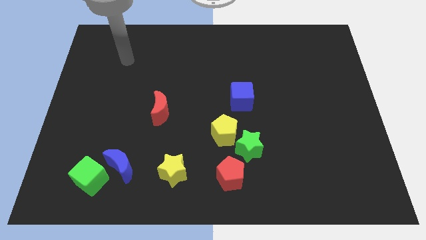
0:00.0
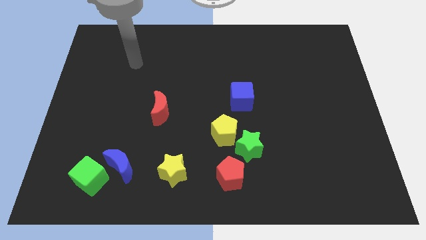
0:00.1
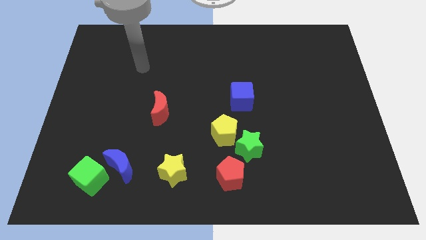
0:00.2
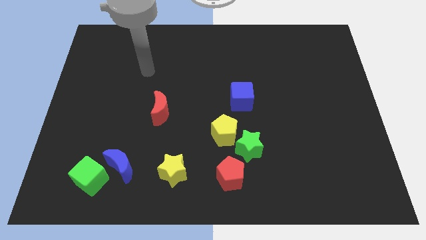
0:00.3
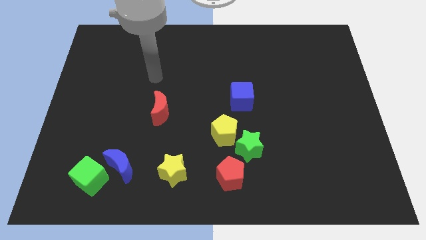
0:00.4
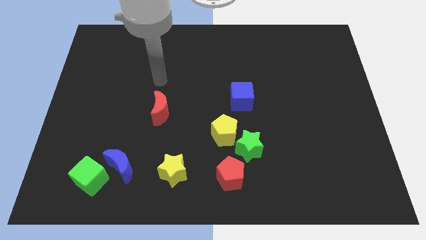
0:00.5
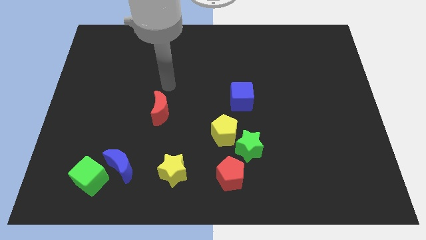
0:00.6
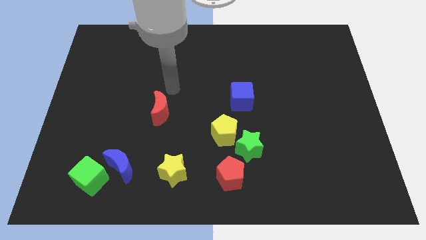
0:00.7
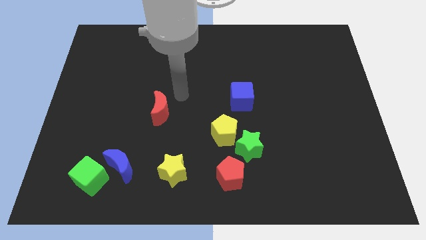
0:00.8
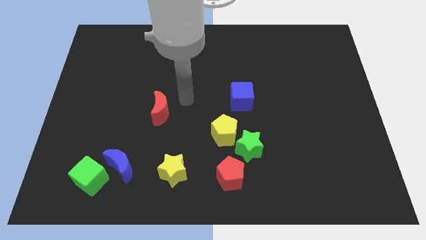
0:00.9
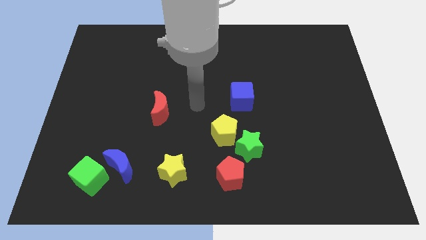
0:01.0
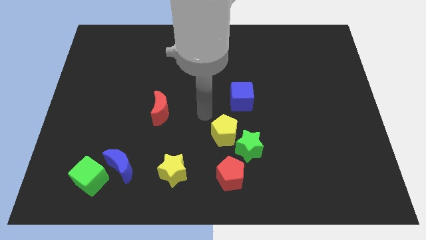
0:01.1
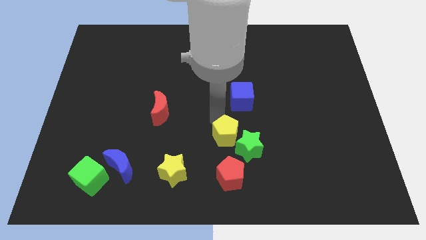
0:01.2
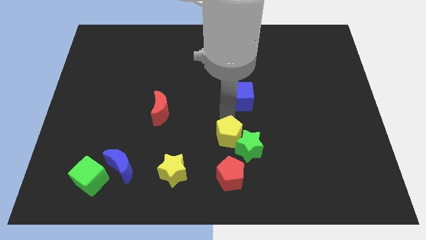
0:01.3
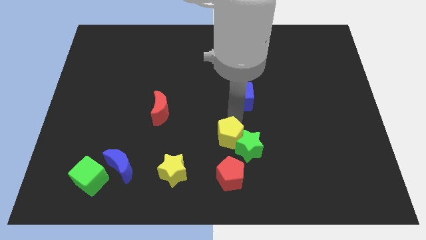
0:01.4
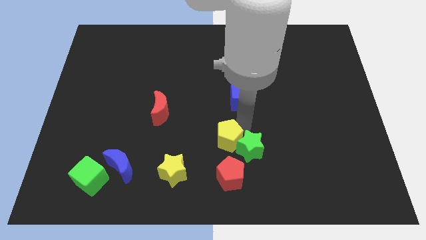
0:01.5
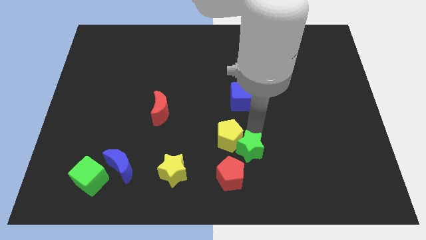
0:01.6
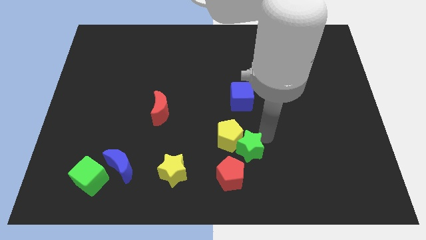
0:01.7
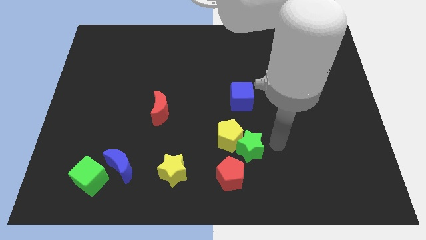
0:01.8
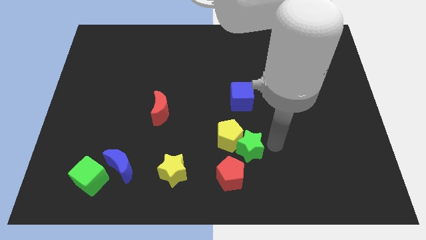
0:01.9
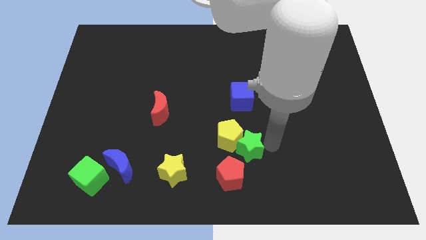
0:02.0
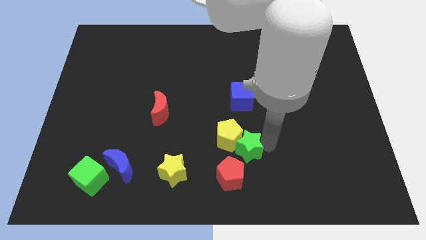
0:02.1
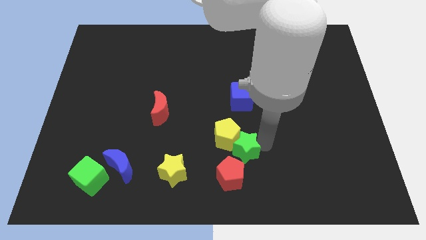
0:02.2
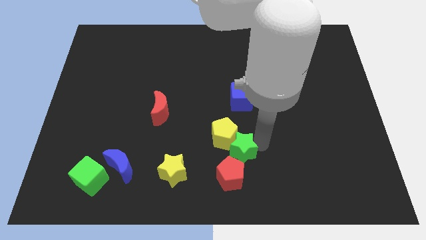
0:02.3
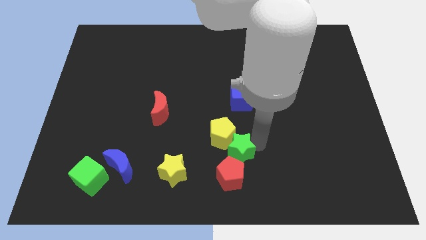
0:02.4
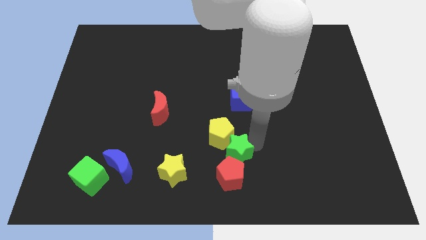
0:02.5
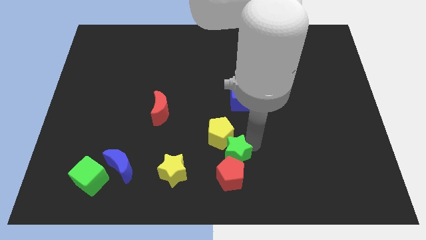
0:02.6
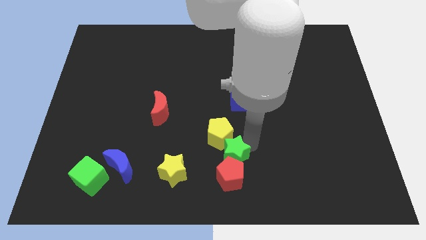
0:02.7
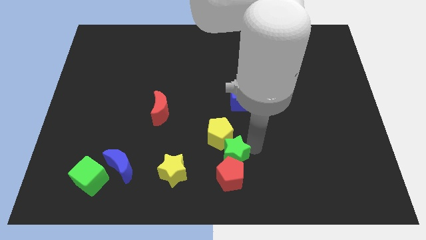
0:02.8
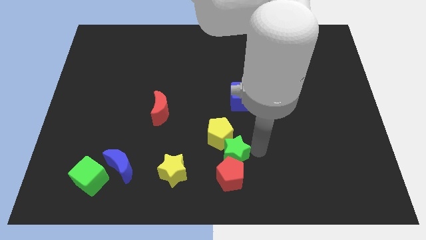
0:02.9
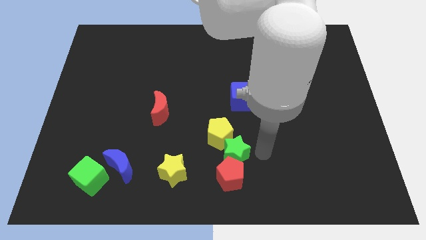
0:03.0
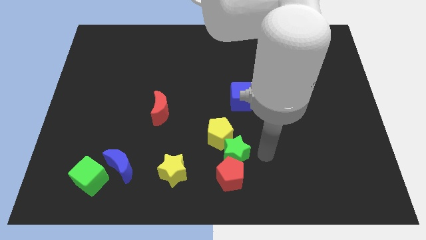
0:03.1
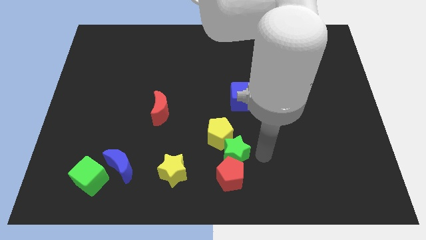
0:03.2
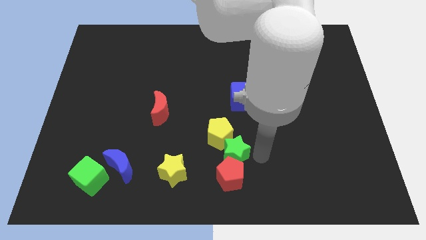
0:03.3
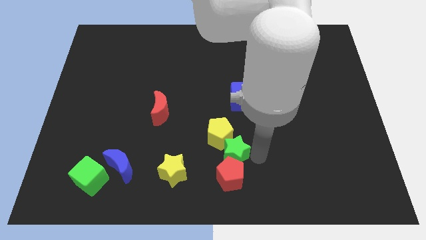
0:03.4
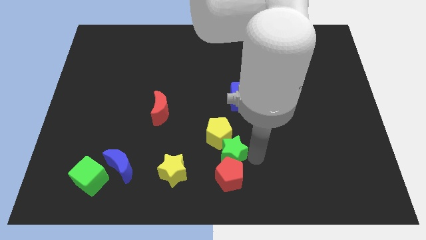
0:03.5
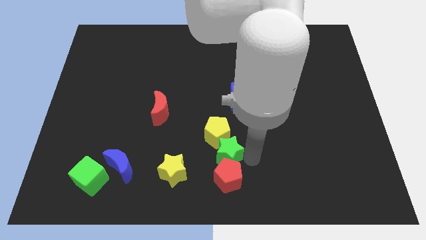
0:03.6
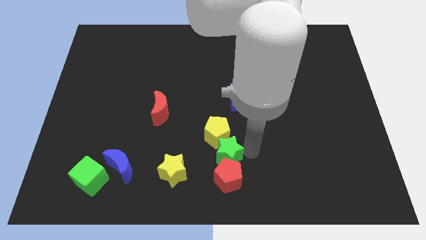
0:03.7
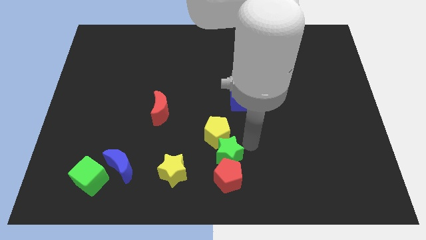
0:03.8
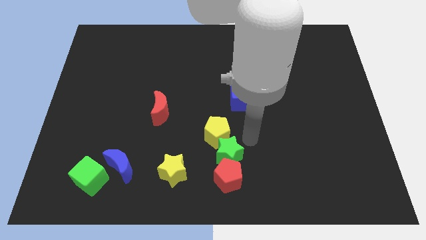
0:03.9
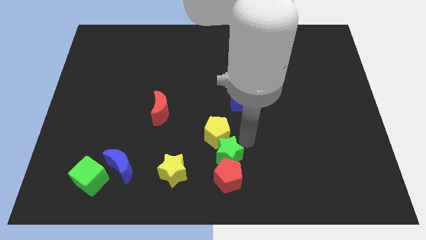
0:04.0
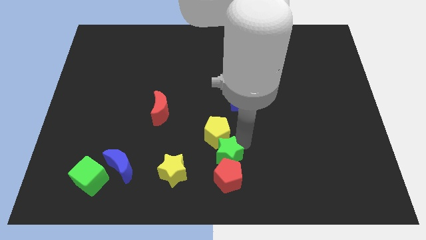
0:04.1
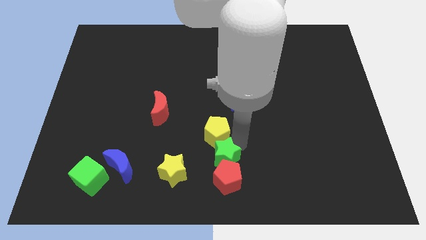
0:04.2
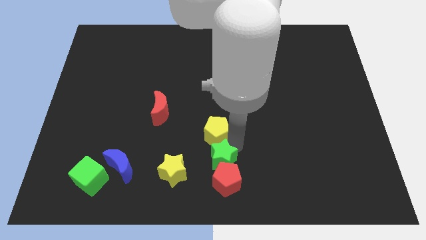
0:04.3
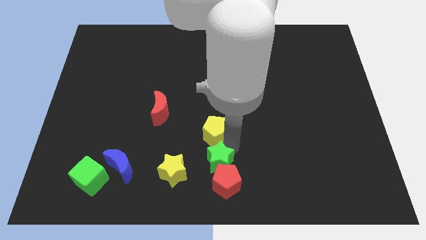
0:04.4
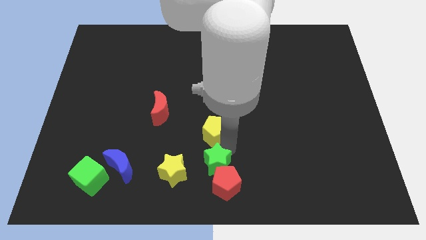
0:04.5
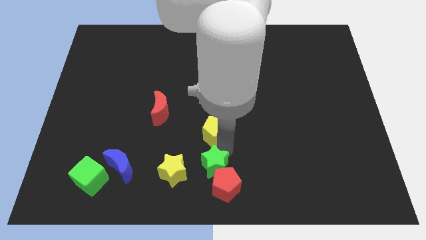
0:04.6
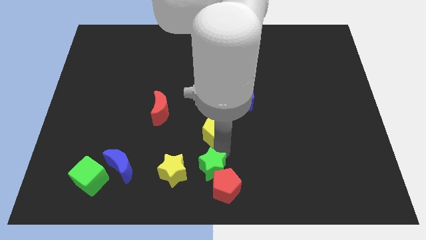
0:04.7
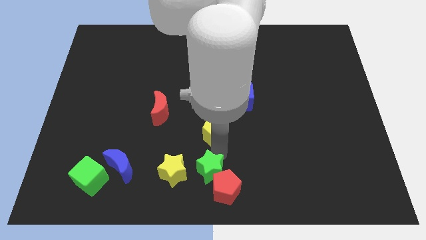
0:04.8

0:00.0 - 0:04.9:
move the green star to the left of the red pentagon

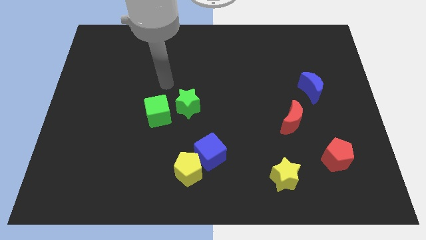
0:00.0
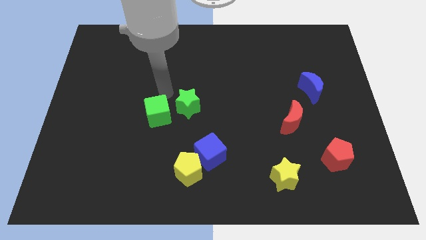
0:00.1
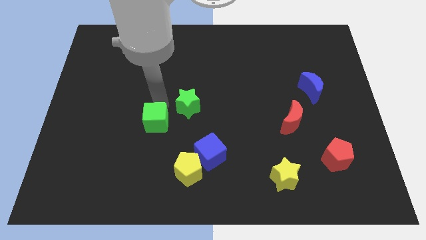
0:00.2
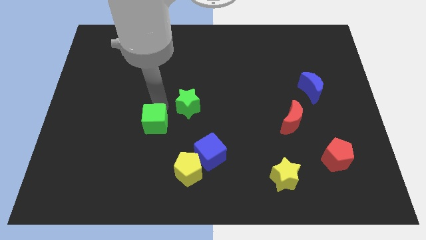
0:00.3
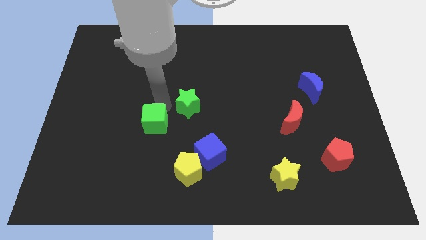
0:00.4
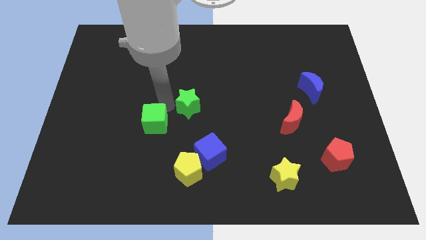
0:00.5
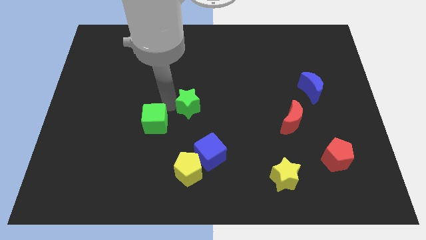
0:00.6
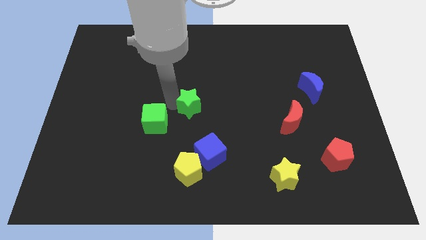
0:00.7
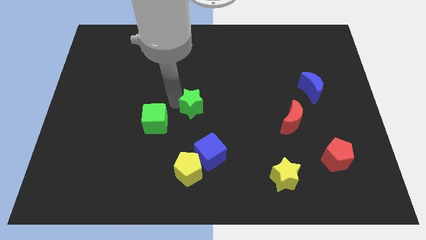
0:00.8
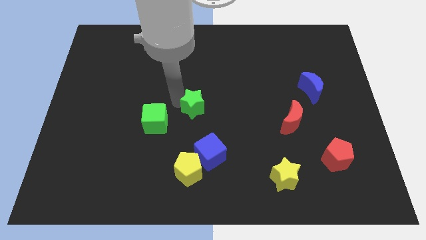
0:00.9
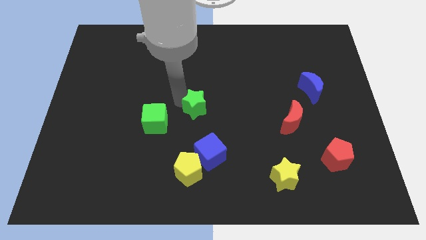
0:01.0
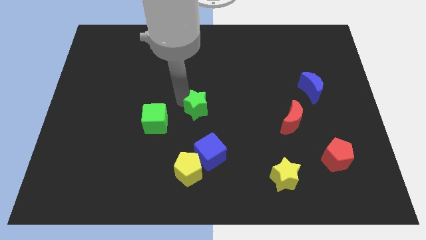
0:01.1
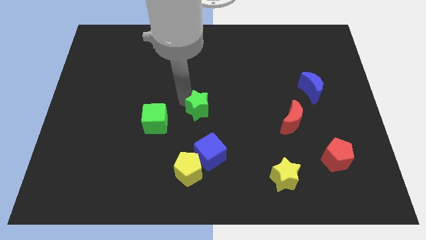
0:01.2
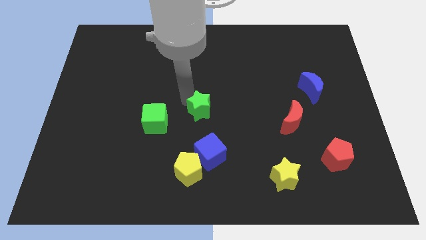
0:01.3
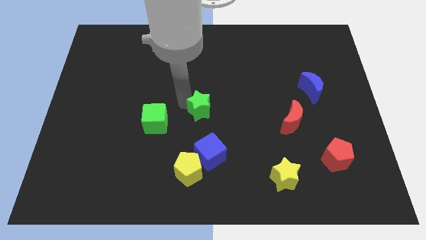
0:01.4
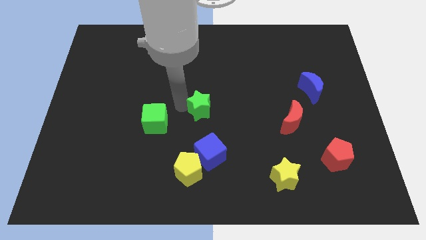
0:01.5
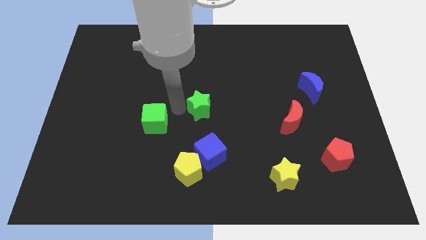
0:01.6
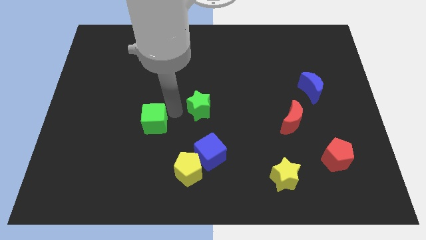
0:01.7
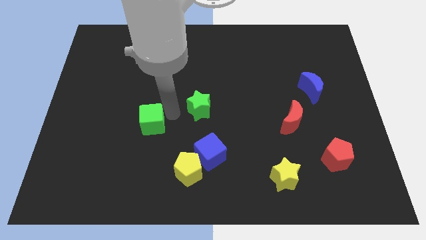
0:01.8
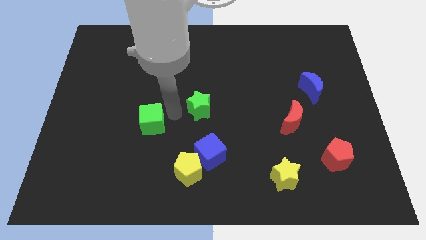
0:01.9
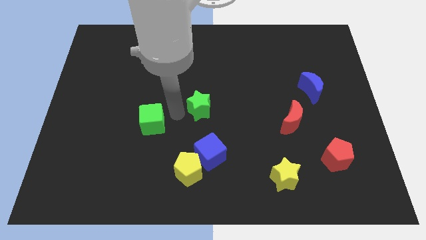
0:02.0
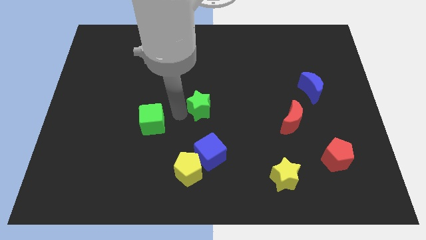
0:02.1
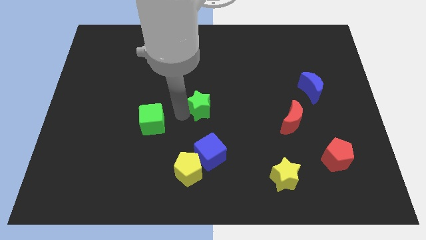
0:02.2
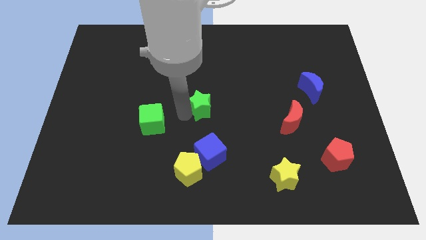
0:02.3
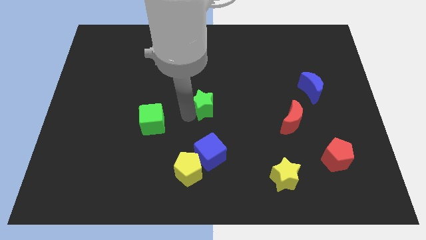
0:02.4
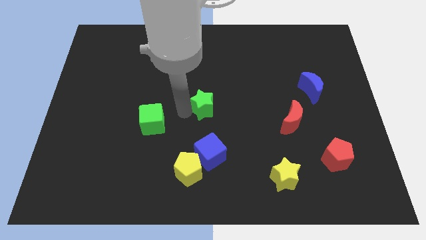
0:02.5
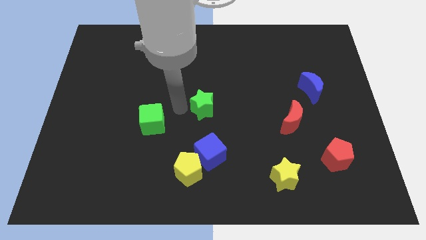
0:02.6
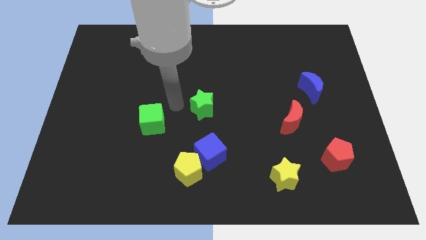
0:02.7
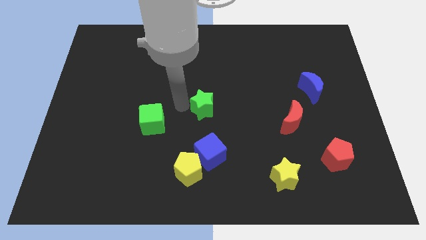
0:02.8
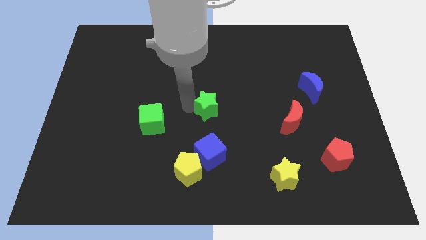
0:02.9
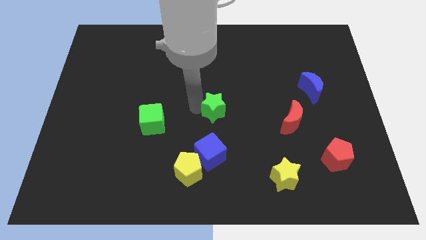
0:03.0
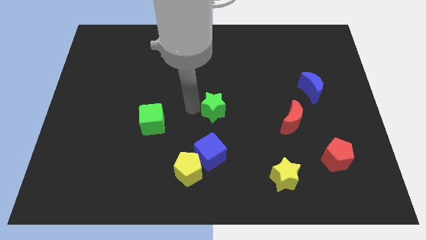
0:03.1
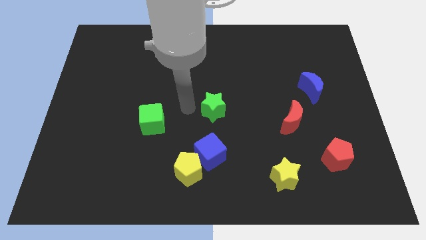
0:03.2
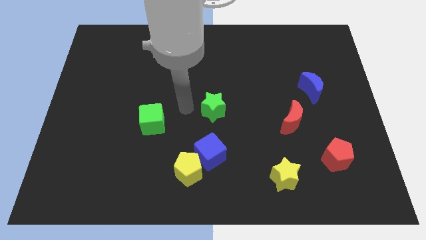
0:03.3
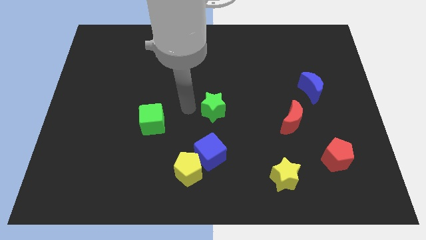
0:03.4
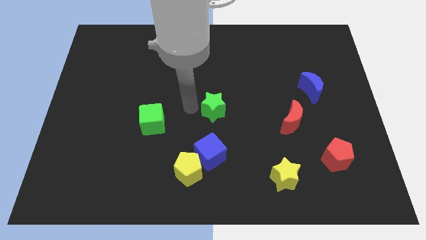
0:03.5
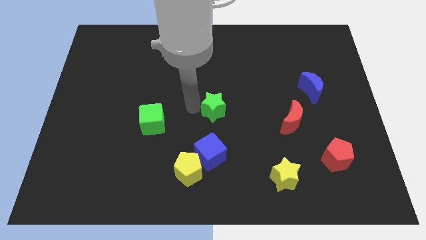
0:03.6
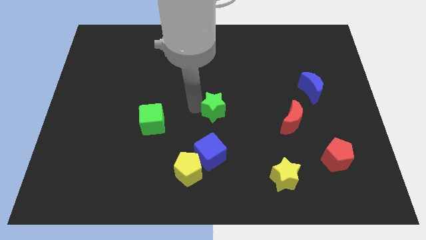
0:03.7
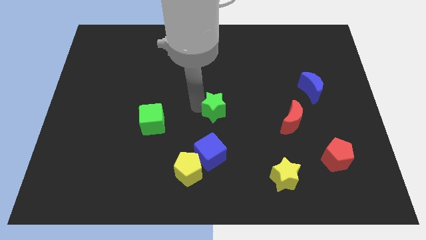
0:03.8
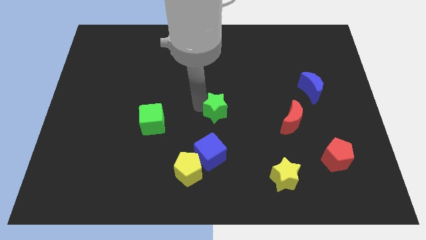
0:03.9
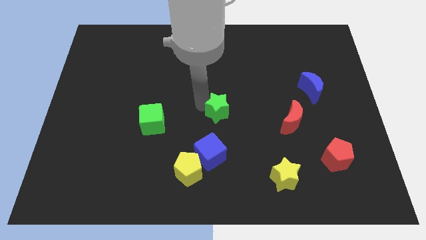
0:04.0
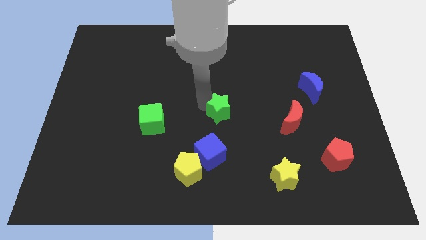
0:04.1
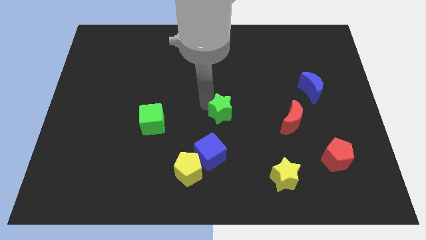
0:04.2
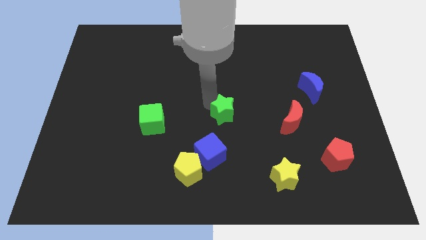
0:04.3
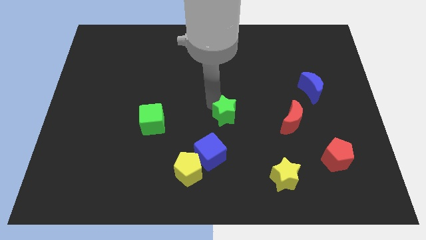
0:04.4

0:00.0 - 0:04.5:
move the green star to the left side of the red moon
